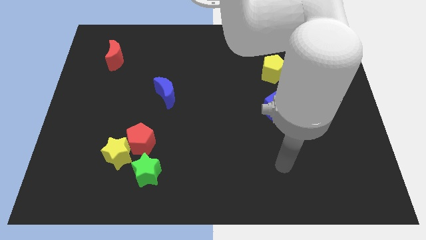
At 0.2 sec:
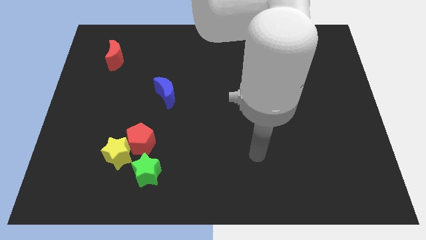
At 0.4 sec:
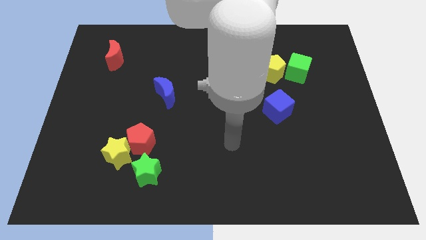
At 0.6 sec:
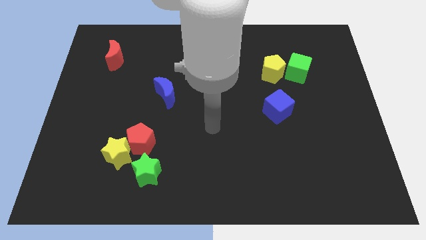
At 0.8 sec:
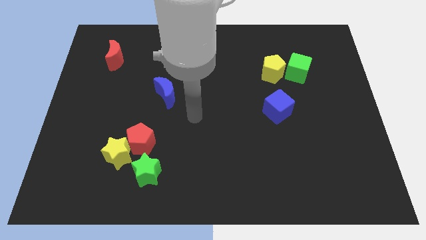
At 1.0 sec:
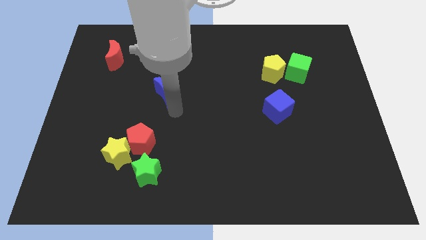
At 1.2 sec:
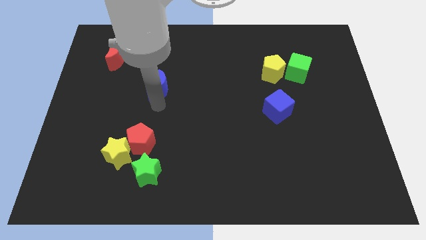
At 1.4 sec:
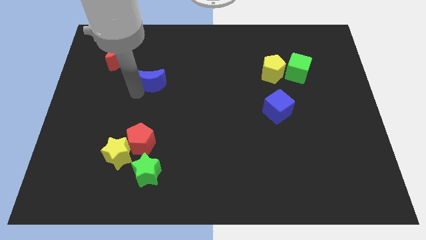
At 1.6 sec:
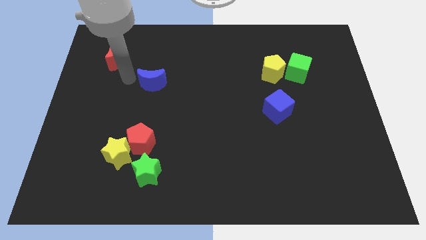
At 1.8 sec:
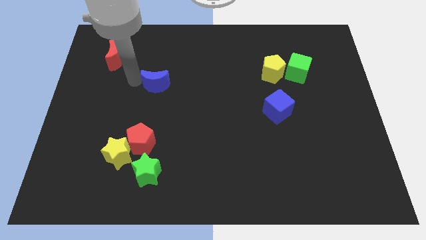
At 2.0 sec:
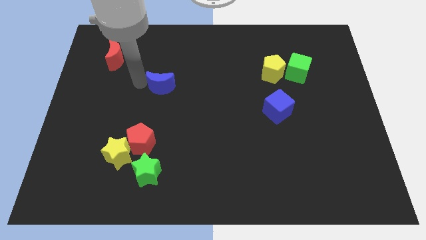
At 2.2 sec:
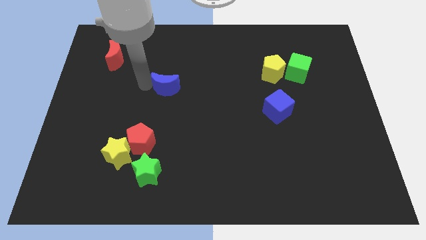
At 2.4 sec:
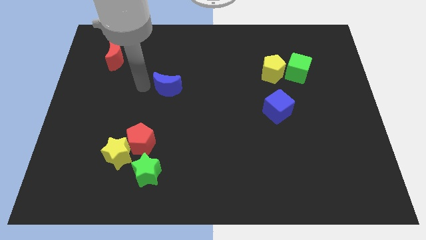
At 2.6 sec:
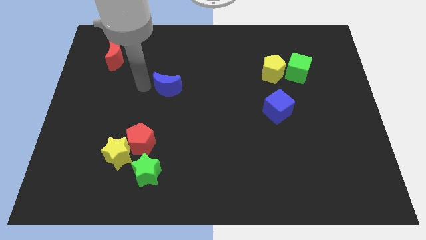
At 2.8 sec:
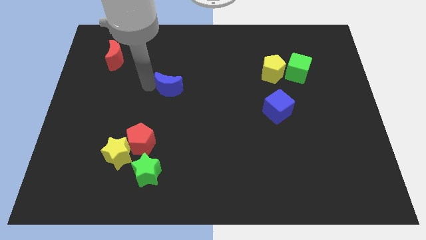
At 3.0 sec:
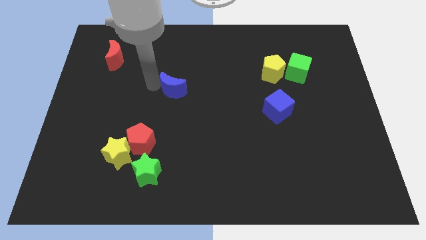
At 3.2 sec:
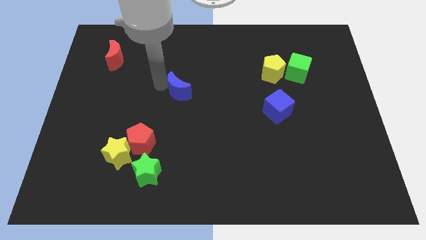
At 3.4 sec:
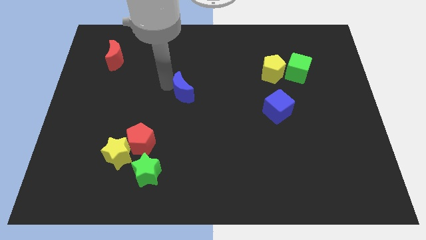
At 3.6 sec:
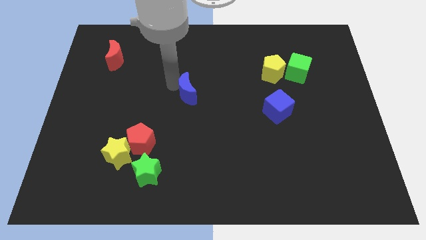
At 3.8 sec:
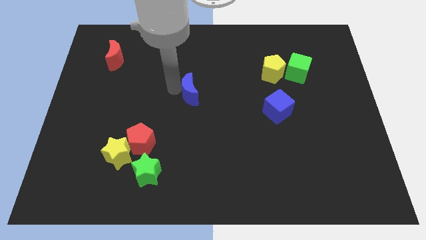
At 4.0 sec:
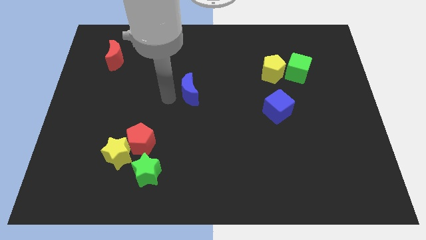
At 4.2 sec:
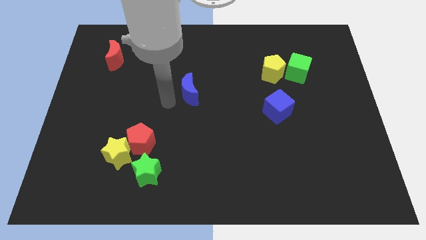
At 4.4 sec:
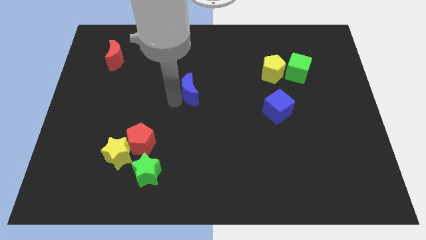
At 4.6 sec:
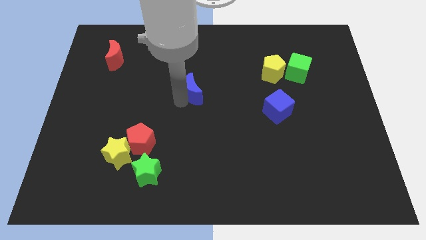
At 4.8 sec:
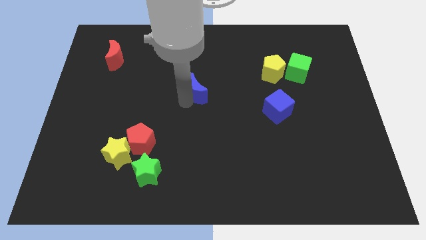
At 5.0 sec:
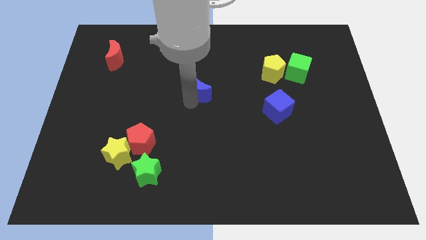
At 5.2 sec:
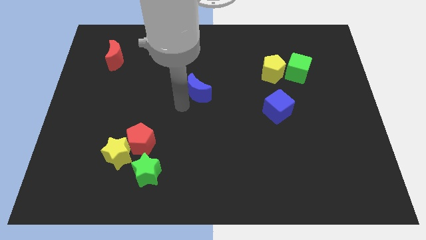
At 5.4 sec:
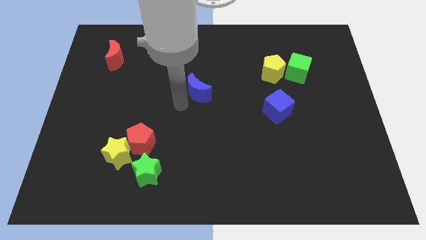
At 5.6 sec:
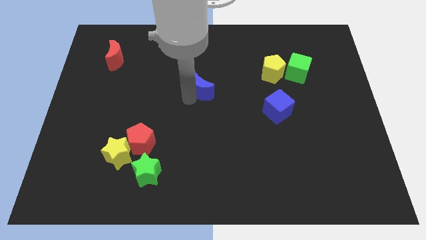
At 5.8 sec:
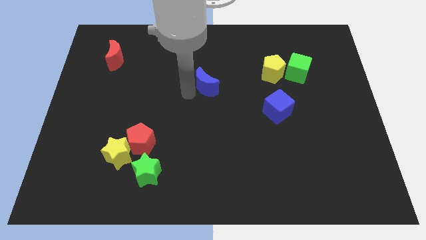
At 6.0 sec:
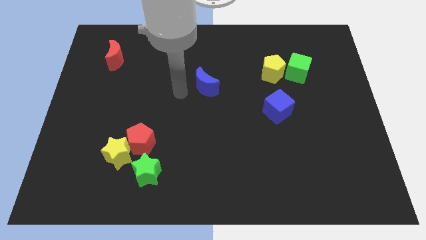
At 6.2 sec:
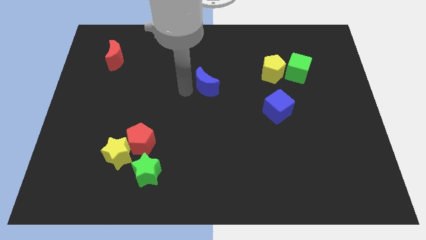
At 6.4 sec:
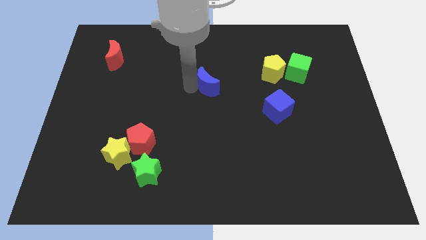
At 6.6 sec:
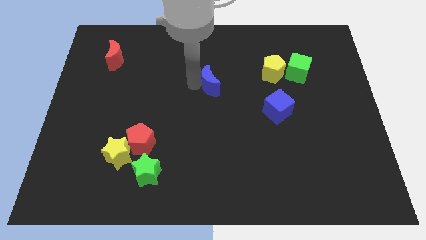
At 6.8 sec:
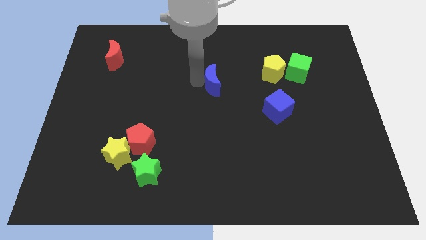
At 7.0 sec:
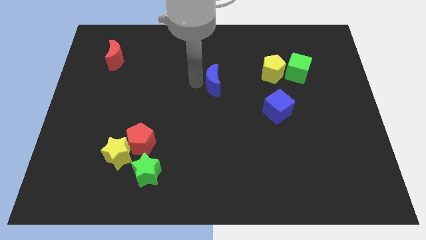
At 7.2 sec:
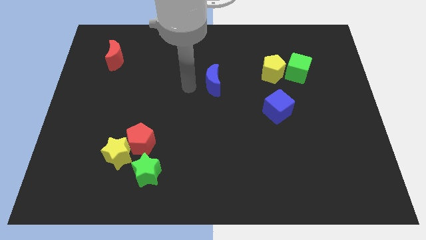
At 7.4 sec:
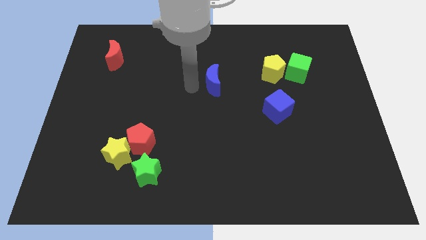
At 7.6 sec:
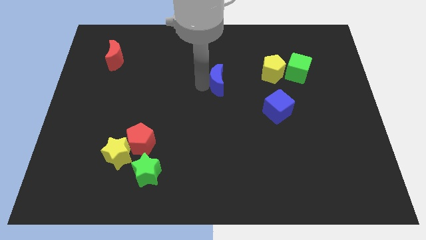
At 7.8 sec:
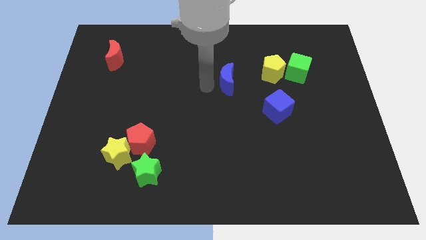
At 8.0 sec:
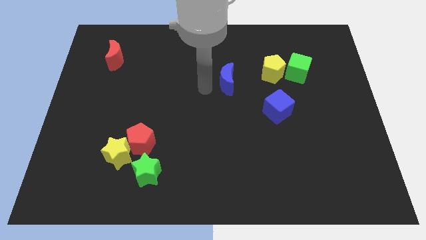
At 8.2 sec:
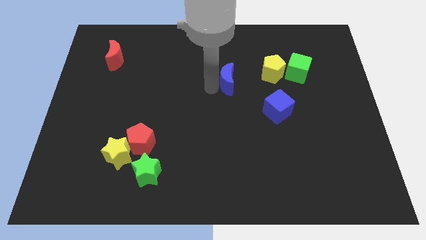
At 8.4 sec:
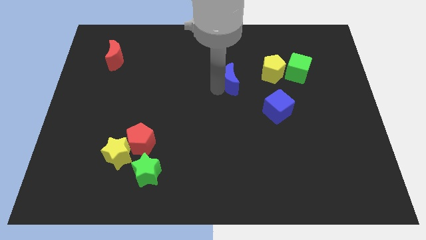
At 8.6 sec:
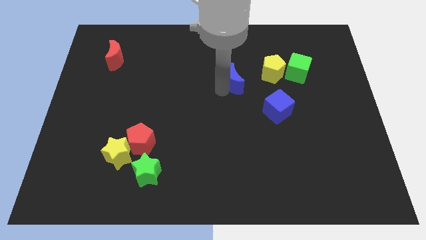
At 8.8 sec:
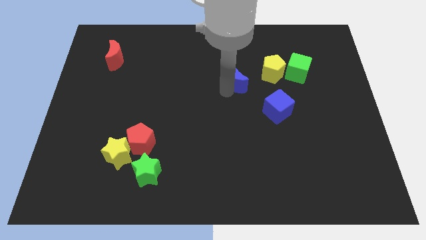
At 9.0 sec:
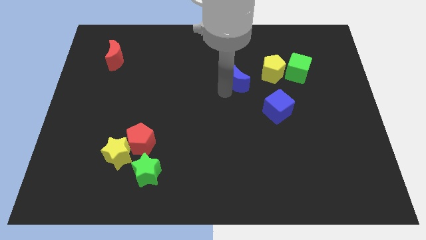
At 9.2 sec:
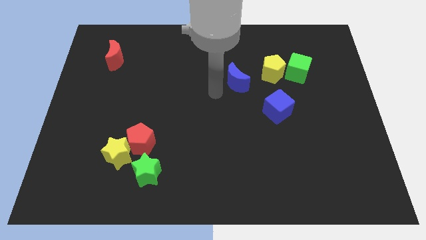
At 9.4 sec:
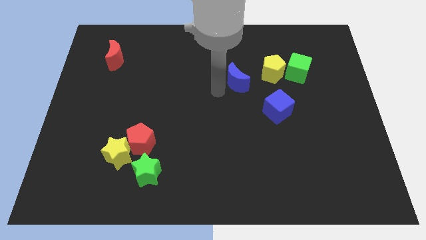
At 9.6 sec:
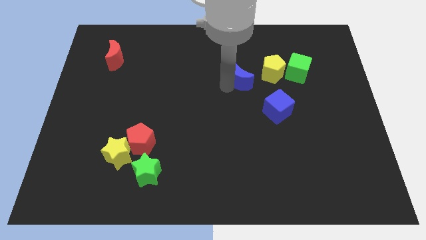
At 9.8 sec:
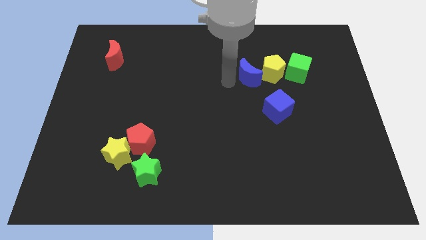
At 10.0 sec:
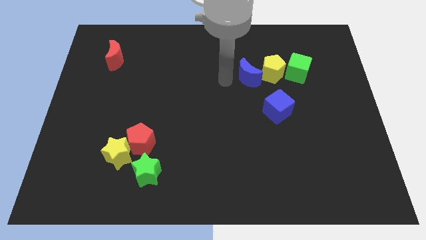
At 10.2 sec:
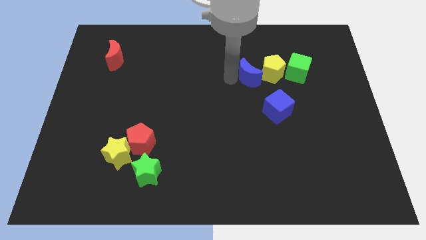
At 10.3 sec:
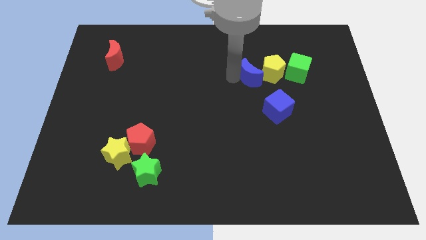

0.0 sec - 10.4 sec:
move the blue moon to the yellow pentagon

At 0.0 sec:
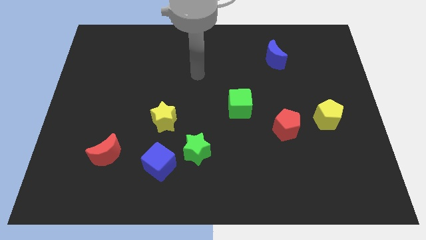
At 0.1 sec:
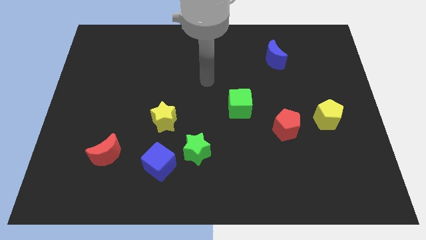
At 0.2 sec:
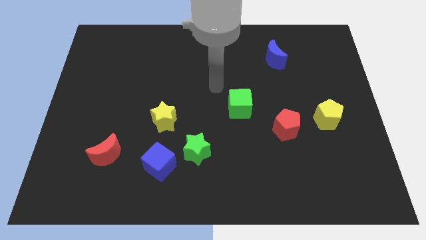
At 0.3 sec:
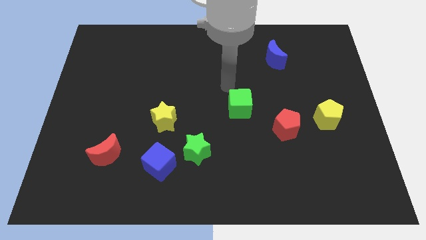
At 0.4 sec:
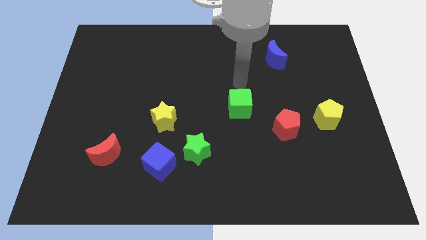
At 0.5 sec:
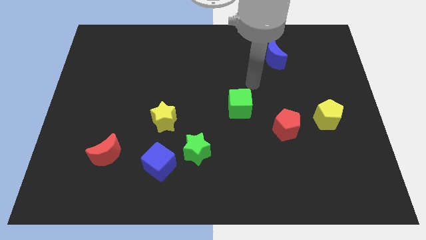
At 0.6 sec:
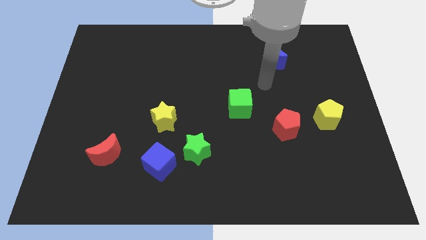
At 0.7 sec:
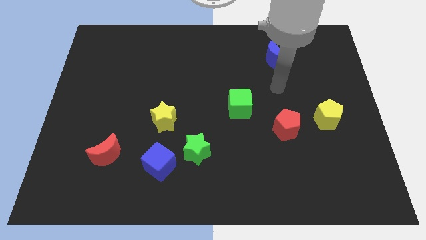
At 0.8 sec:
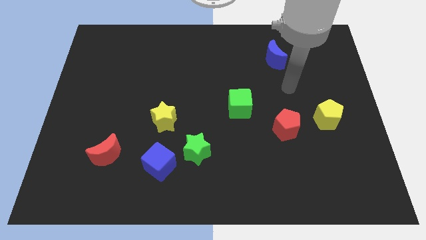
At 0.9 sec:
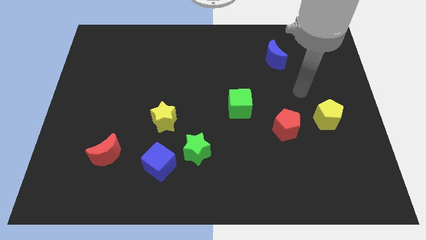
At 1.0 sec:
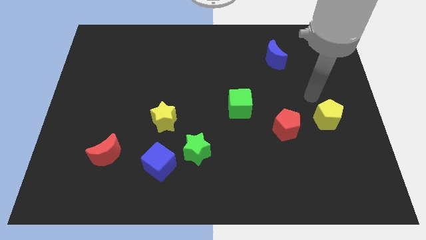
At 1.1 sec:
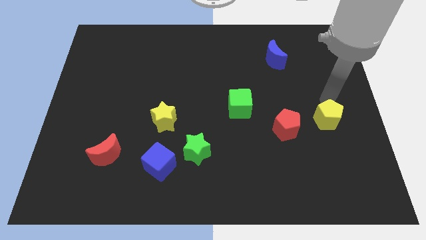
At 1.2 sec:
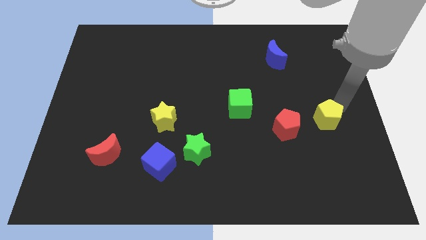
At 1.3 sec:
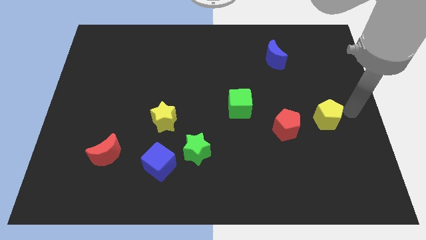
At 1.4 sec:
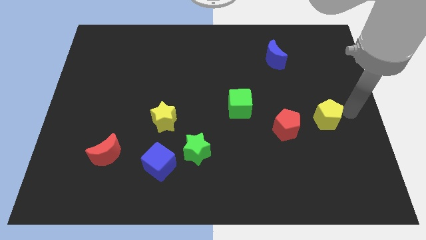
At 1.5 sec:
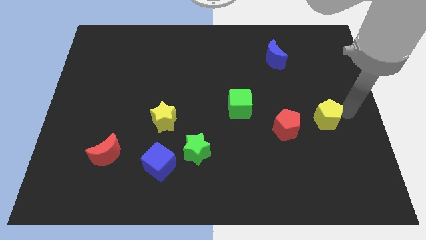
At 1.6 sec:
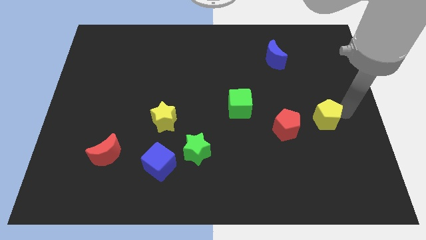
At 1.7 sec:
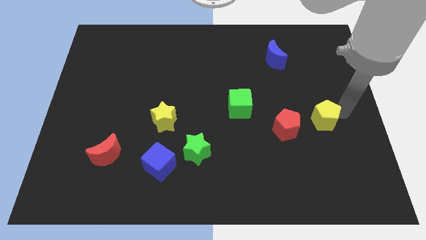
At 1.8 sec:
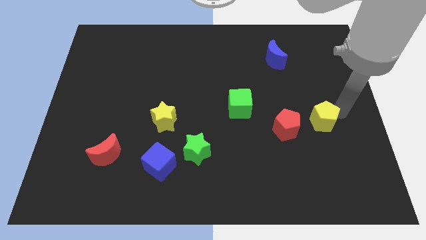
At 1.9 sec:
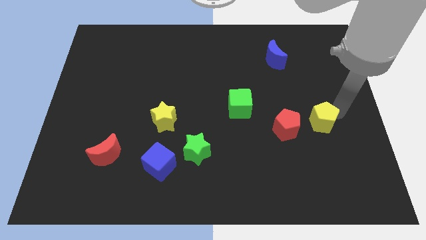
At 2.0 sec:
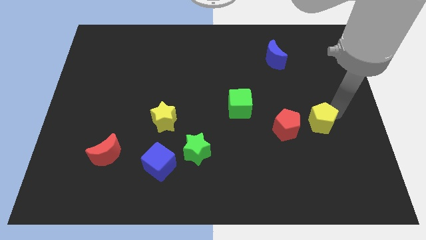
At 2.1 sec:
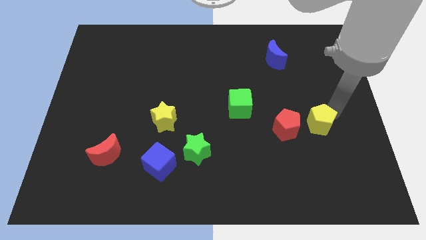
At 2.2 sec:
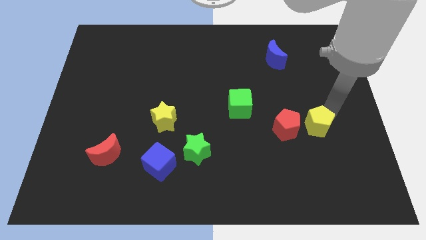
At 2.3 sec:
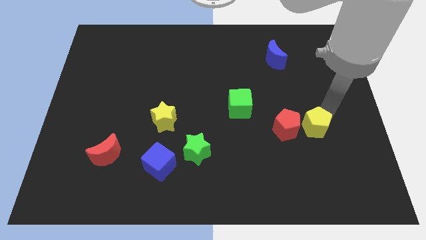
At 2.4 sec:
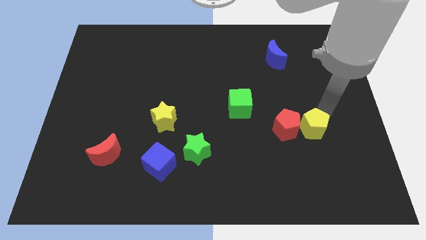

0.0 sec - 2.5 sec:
move the yellow pentagon next to the red pentagon
